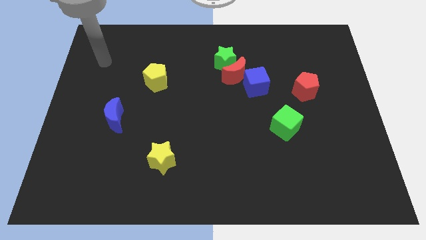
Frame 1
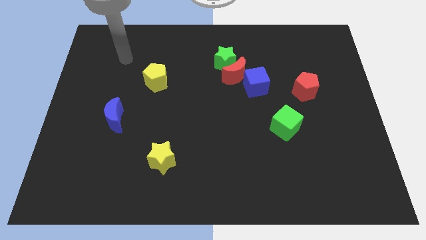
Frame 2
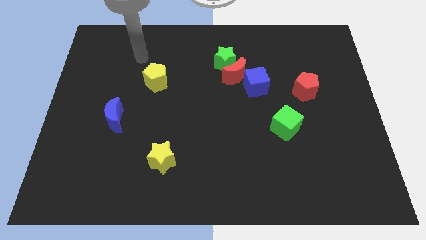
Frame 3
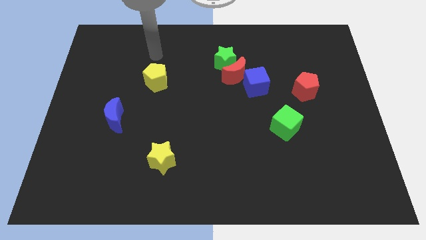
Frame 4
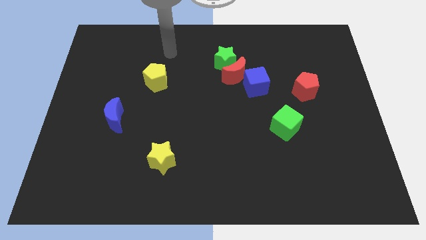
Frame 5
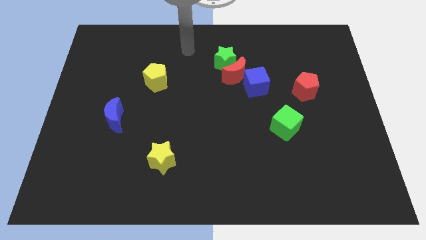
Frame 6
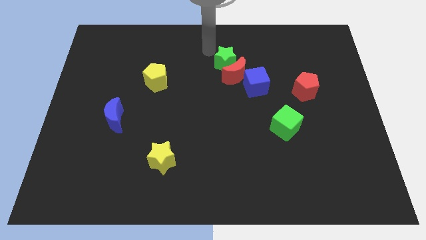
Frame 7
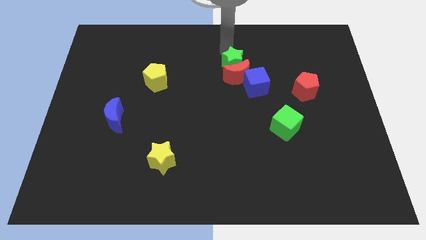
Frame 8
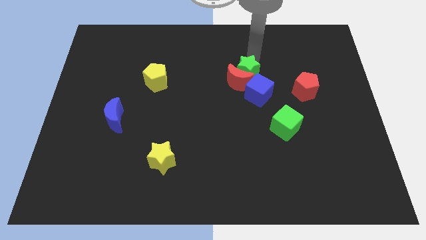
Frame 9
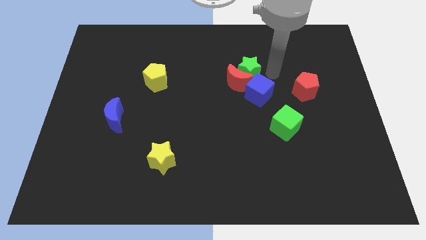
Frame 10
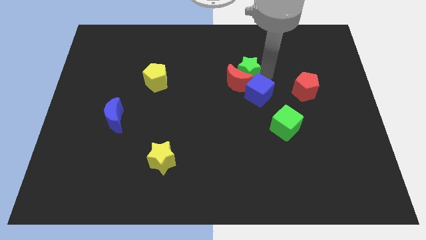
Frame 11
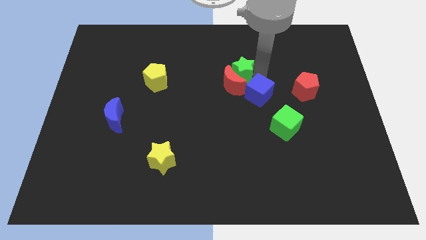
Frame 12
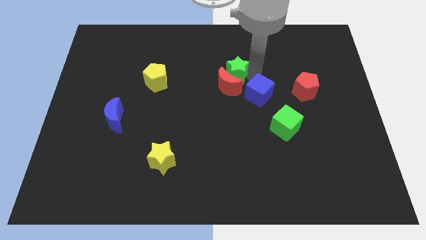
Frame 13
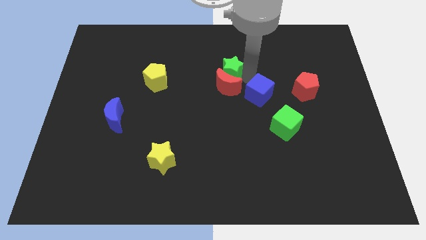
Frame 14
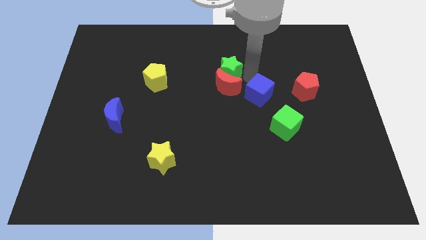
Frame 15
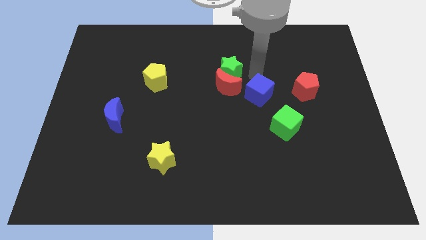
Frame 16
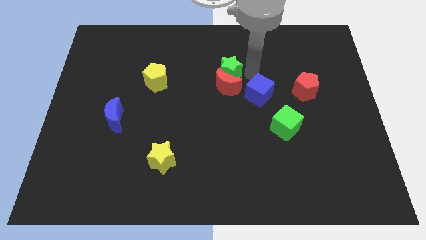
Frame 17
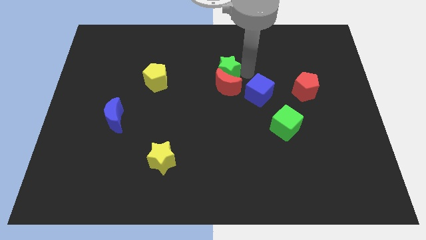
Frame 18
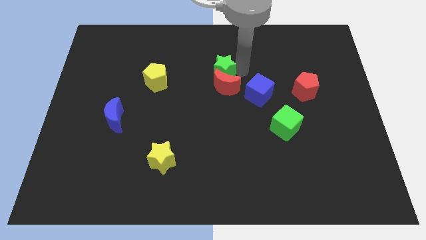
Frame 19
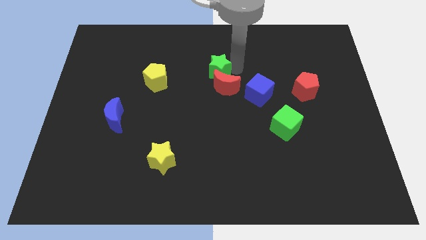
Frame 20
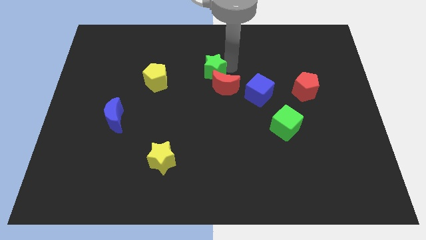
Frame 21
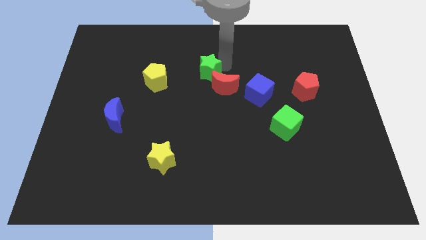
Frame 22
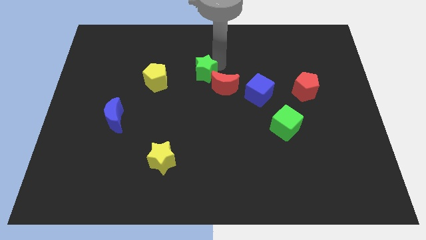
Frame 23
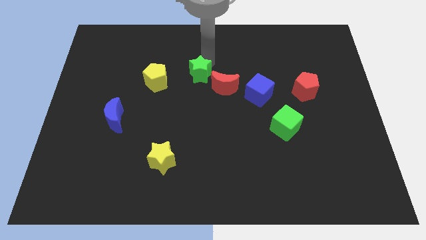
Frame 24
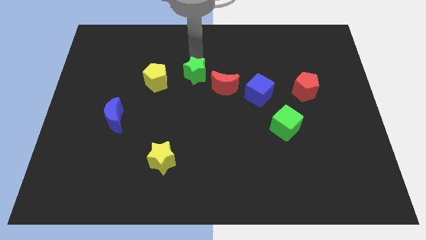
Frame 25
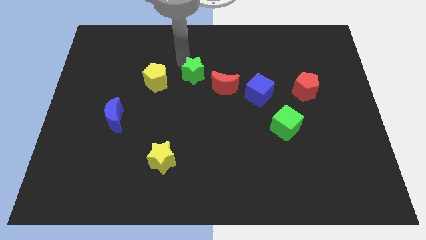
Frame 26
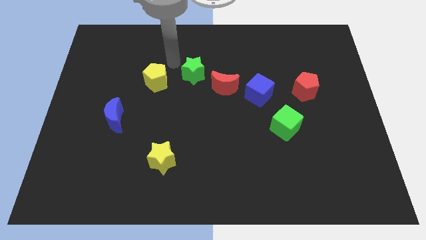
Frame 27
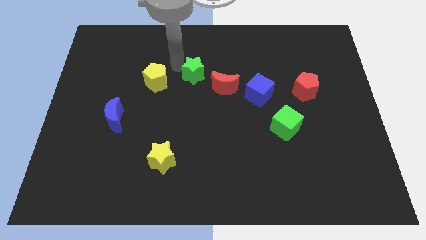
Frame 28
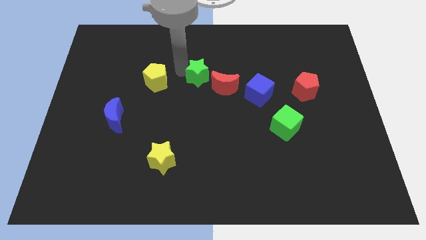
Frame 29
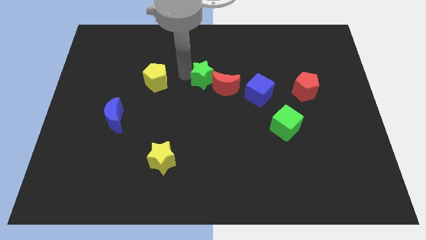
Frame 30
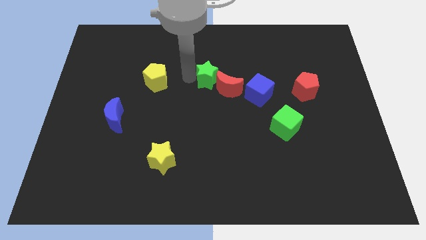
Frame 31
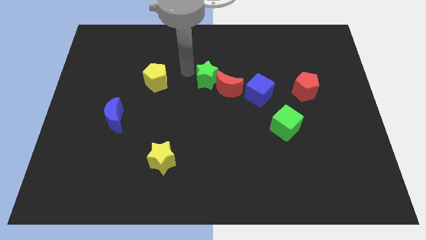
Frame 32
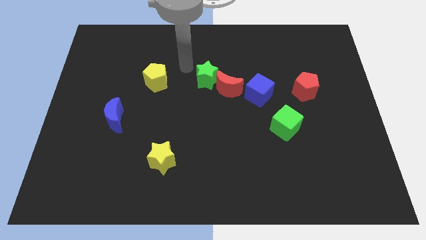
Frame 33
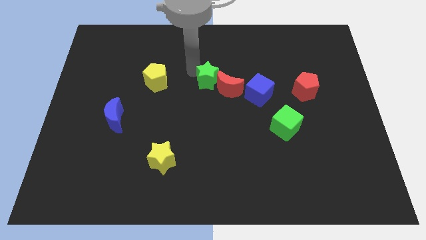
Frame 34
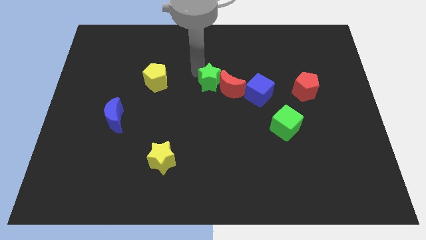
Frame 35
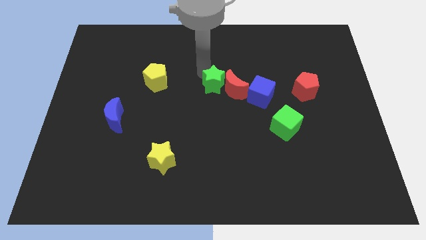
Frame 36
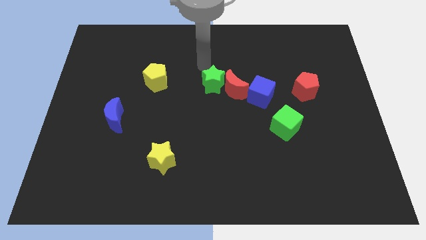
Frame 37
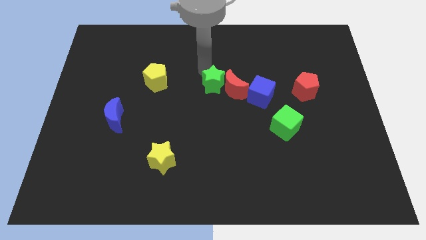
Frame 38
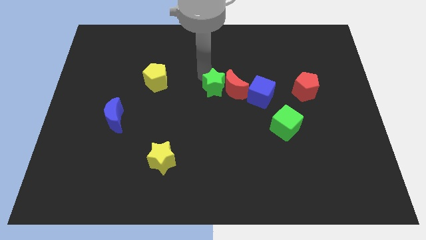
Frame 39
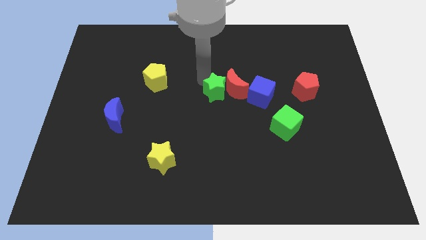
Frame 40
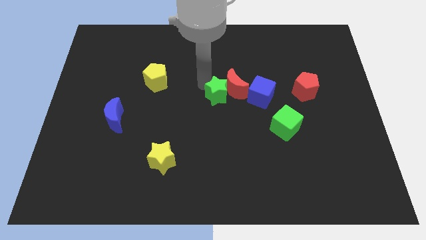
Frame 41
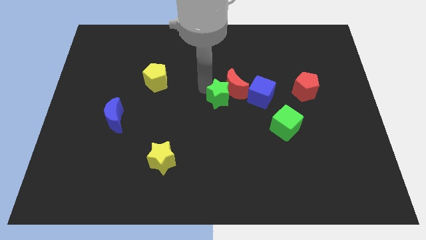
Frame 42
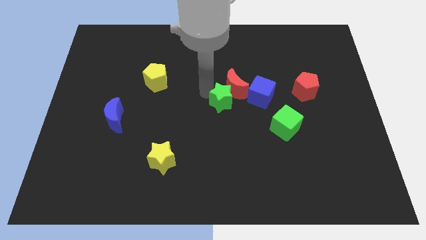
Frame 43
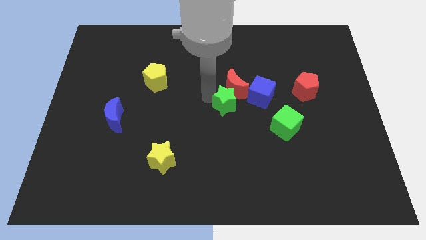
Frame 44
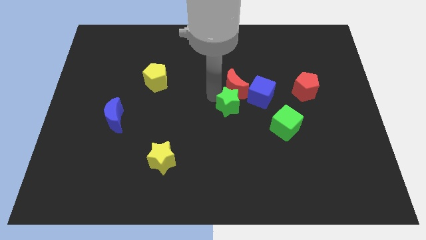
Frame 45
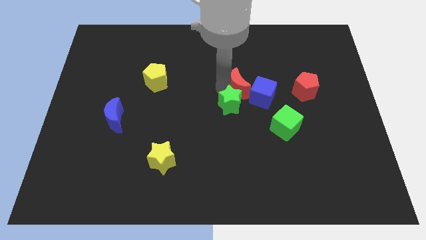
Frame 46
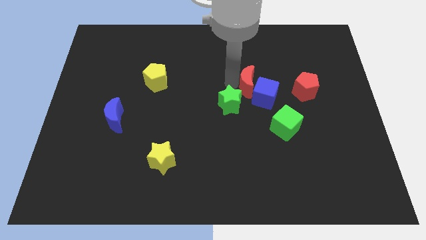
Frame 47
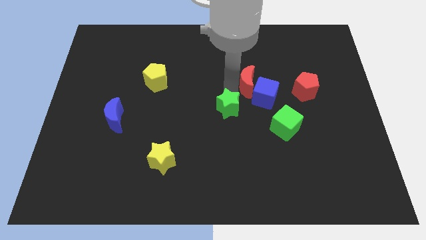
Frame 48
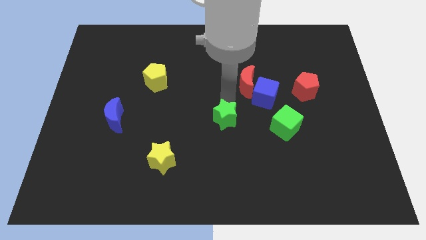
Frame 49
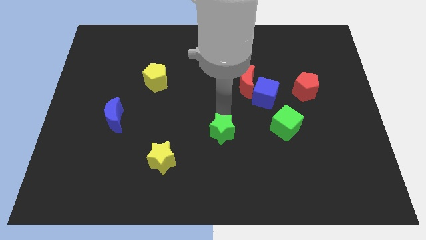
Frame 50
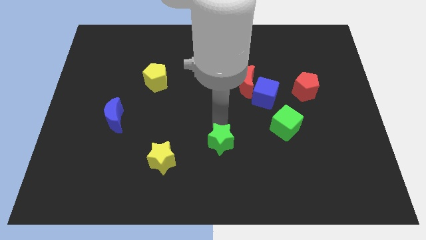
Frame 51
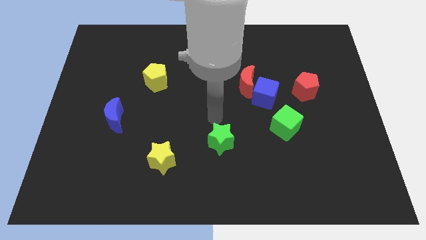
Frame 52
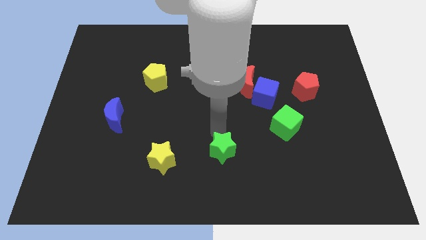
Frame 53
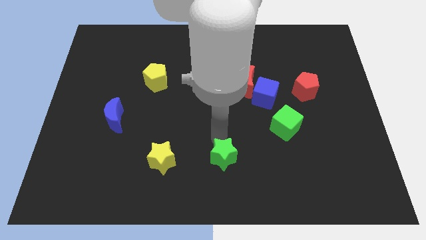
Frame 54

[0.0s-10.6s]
put the green star to the bottom

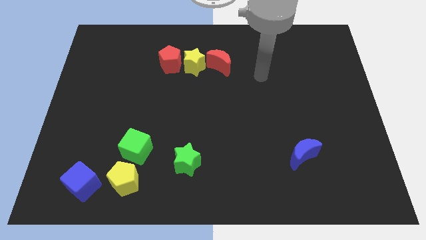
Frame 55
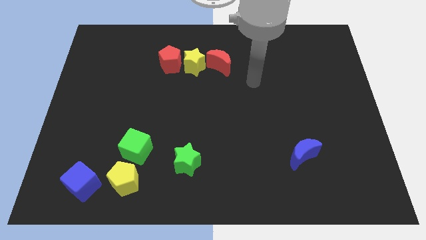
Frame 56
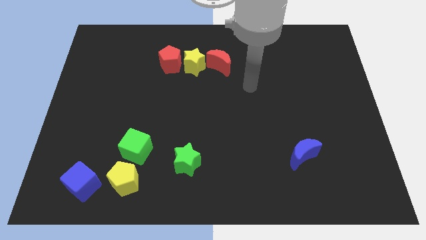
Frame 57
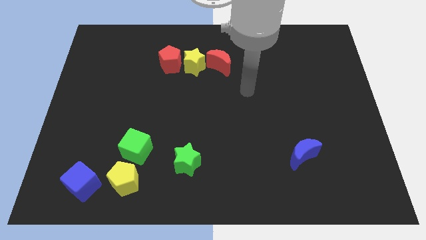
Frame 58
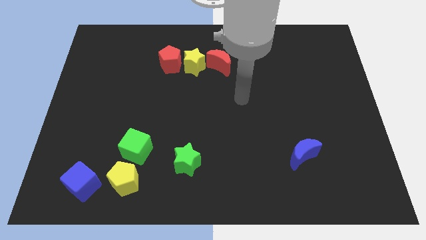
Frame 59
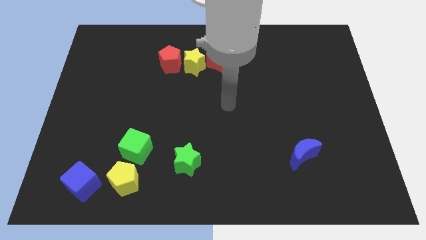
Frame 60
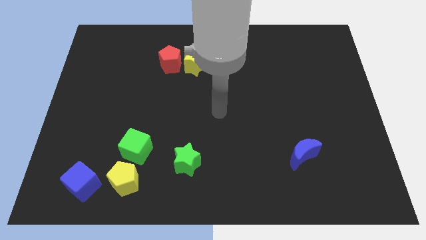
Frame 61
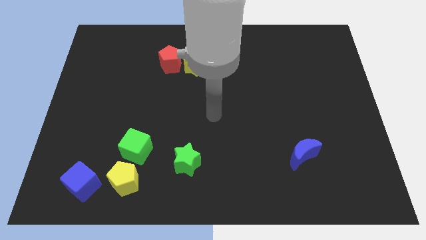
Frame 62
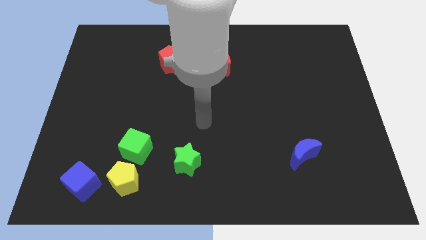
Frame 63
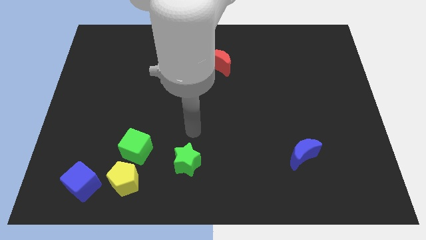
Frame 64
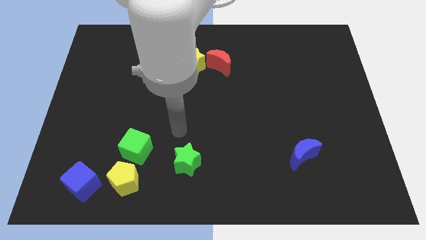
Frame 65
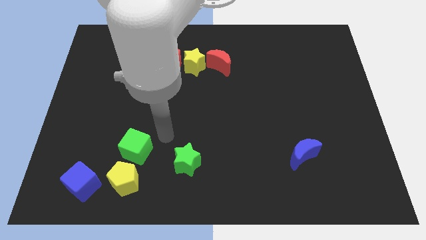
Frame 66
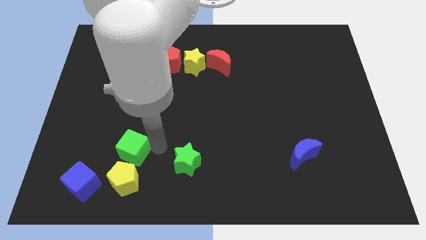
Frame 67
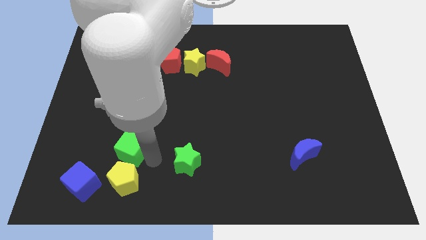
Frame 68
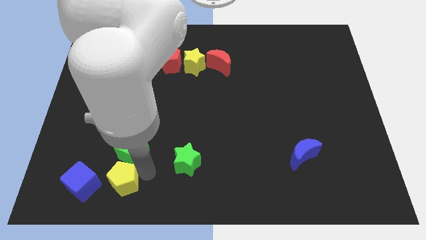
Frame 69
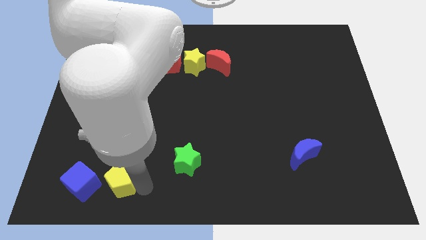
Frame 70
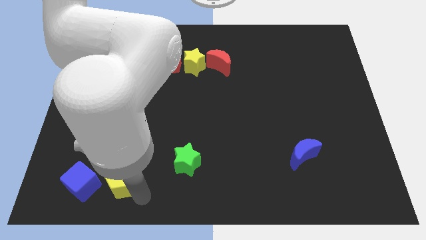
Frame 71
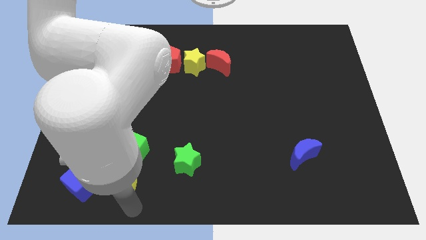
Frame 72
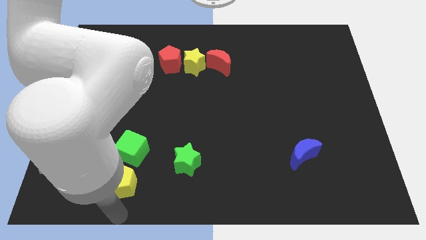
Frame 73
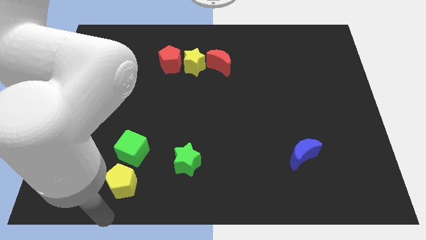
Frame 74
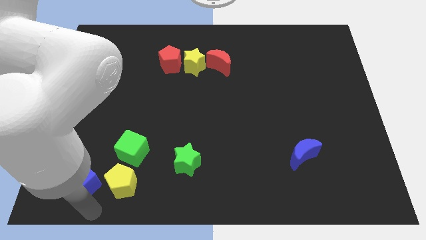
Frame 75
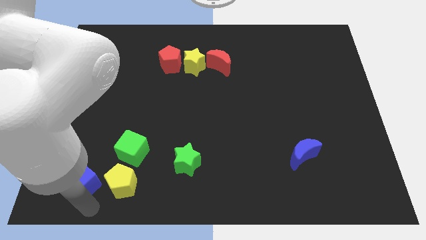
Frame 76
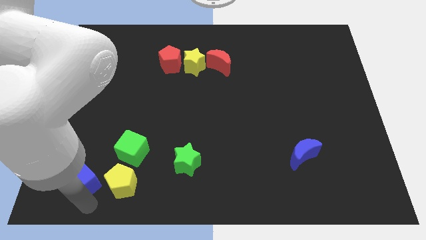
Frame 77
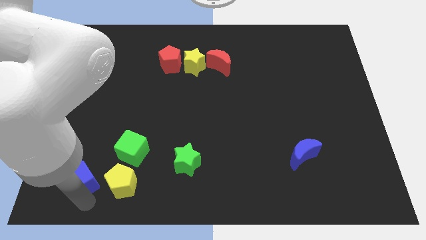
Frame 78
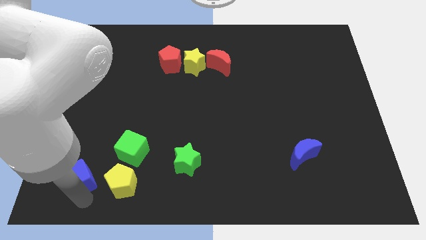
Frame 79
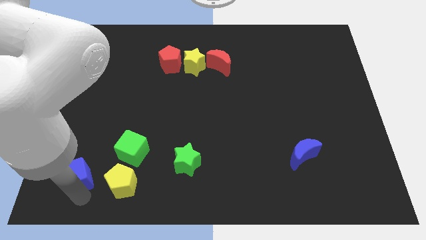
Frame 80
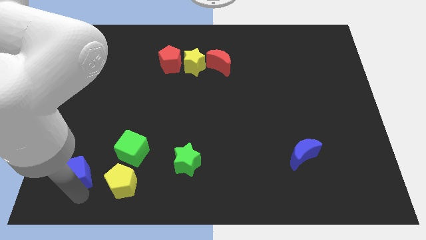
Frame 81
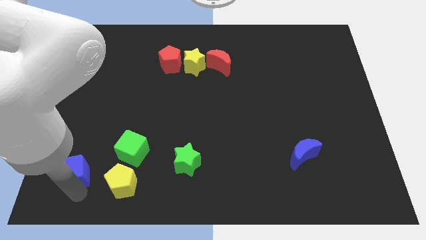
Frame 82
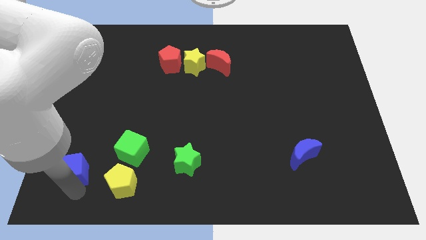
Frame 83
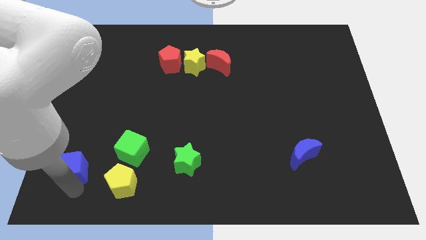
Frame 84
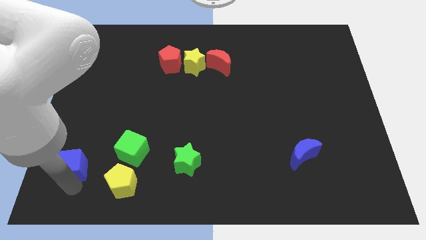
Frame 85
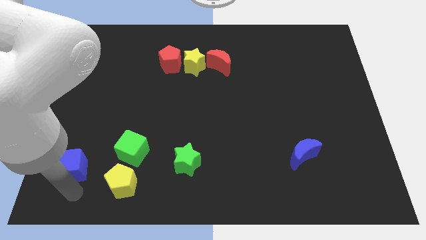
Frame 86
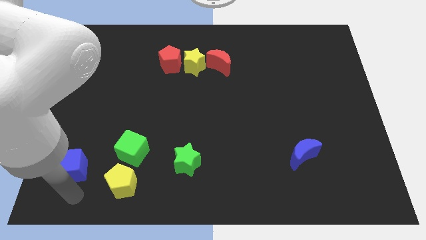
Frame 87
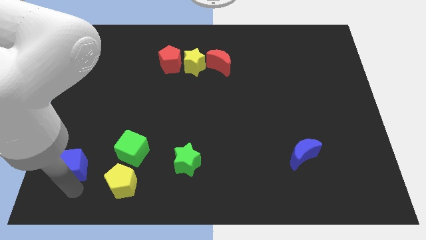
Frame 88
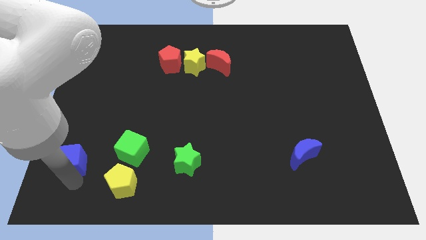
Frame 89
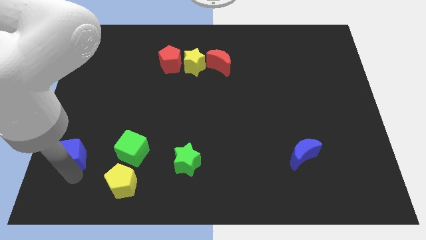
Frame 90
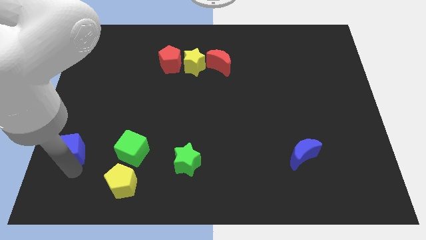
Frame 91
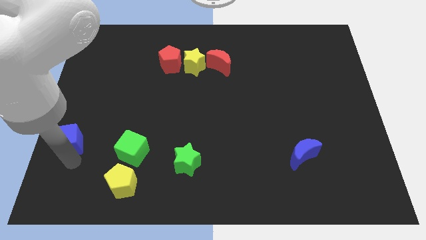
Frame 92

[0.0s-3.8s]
put the blue cube to the center left
